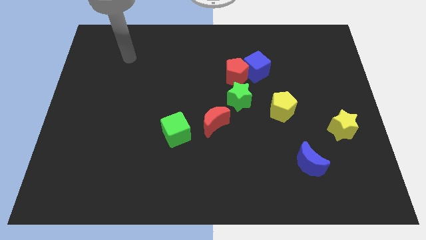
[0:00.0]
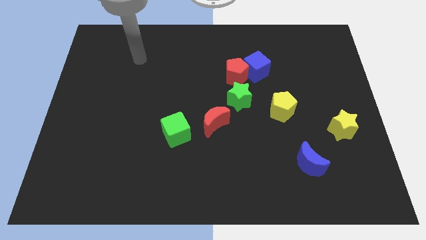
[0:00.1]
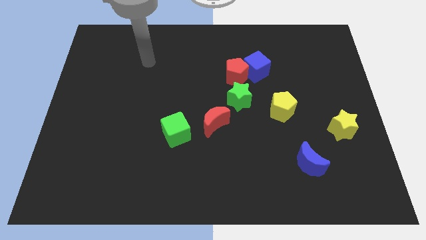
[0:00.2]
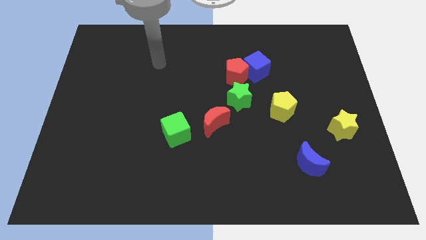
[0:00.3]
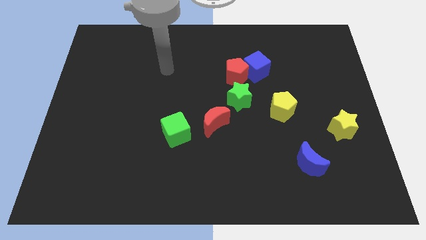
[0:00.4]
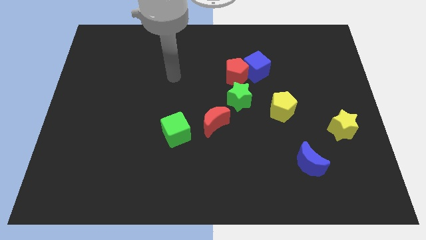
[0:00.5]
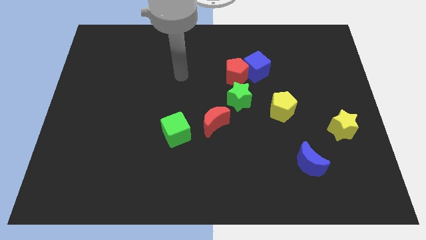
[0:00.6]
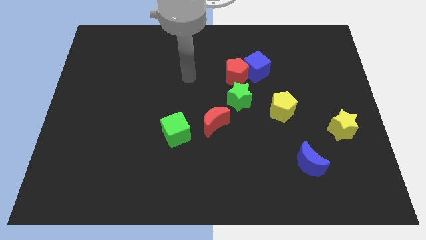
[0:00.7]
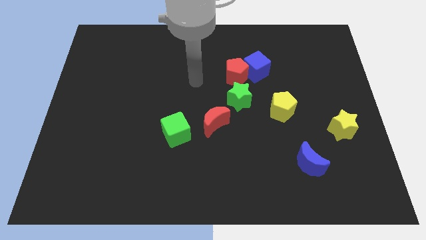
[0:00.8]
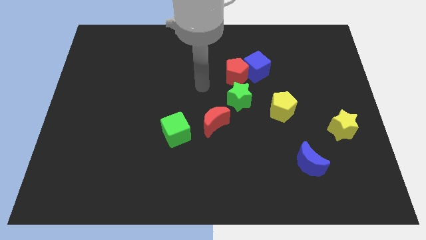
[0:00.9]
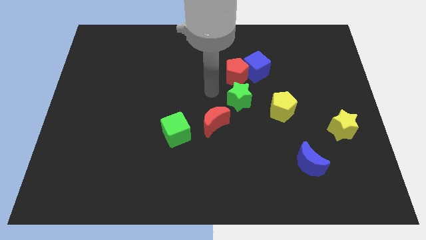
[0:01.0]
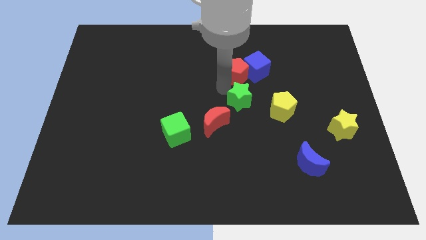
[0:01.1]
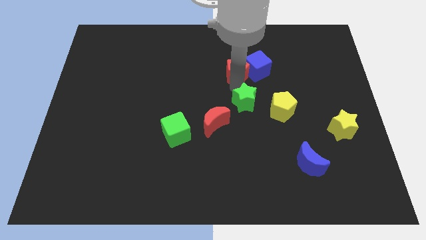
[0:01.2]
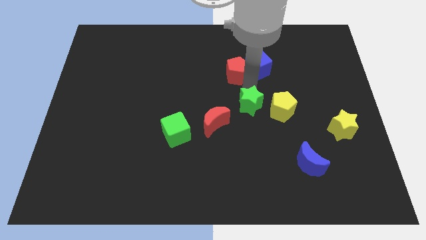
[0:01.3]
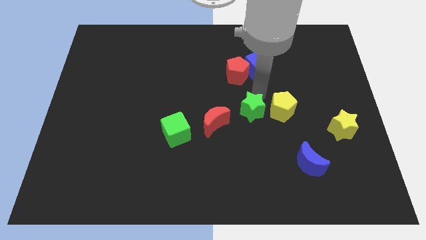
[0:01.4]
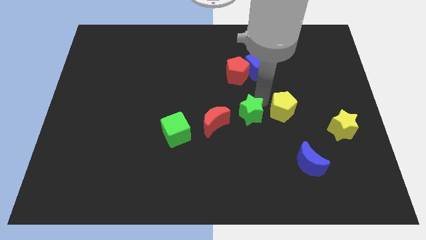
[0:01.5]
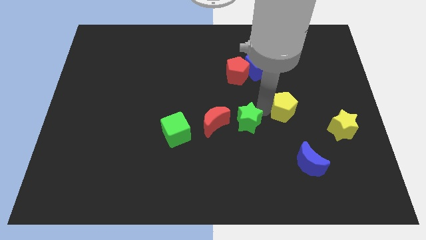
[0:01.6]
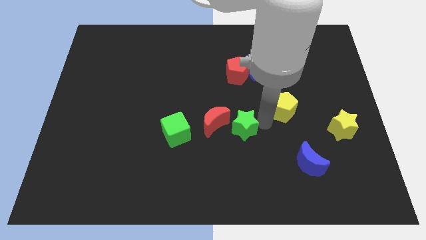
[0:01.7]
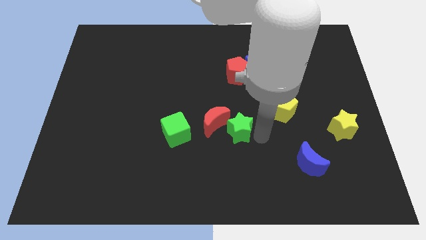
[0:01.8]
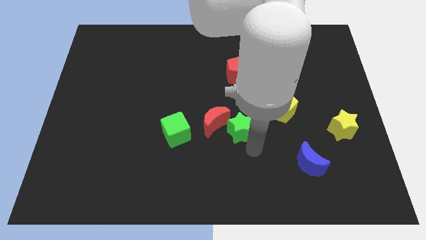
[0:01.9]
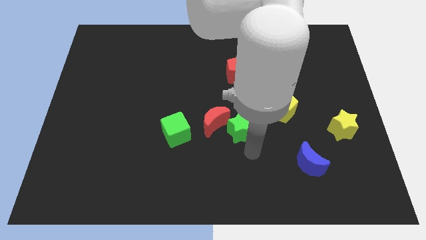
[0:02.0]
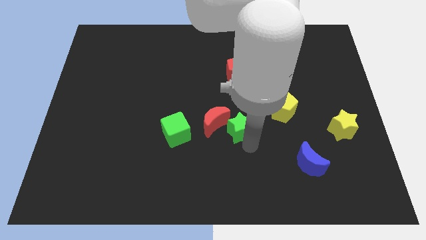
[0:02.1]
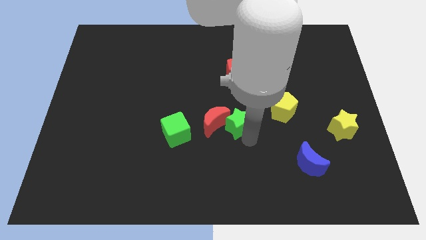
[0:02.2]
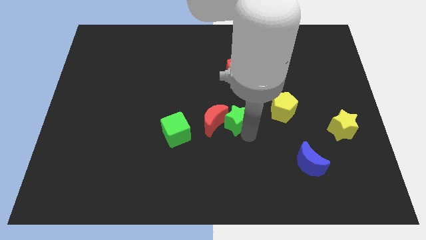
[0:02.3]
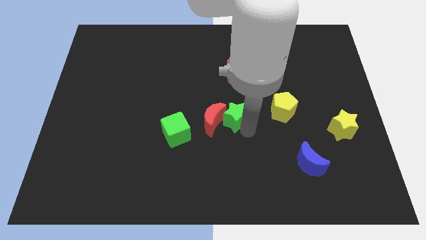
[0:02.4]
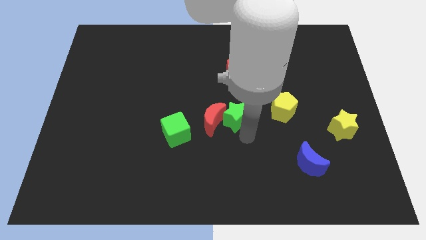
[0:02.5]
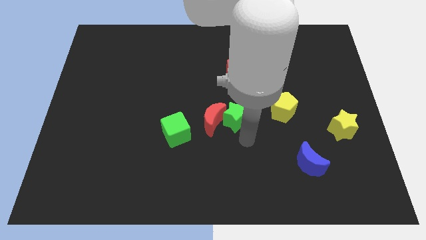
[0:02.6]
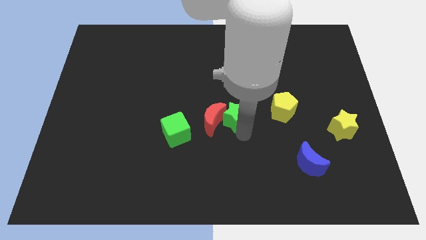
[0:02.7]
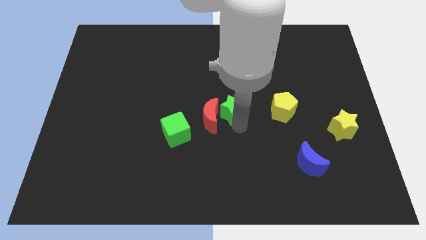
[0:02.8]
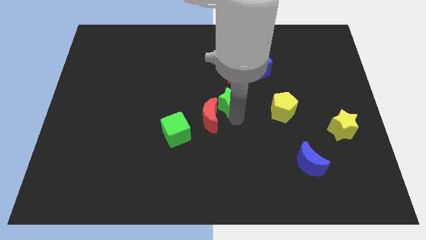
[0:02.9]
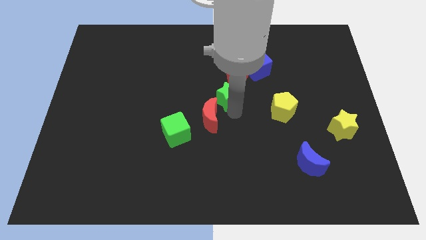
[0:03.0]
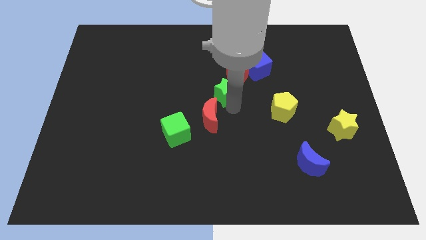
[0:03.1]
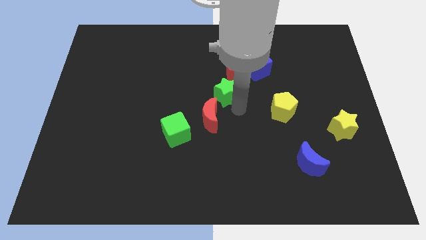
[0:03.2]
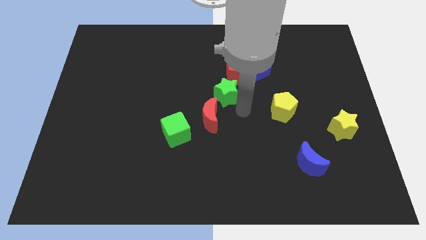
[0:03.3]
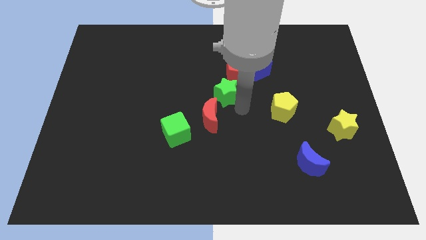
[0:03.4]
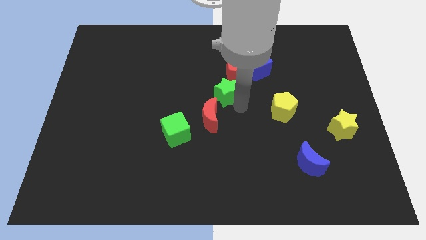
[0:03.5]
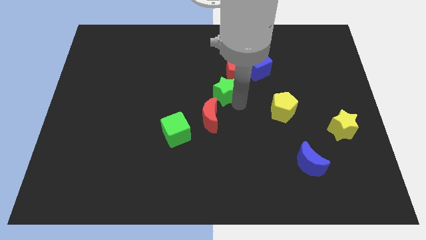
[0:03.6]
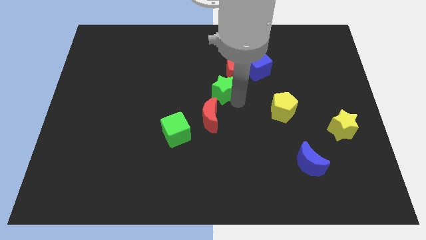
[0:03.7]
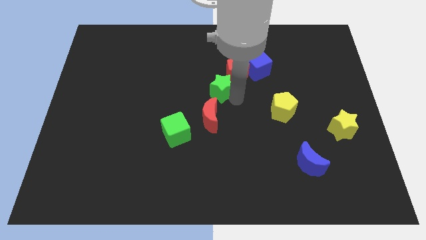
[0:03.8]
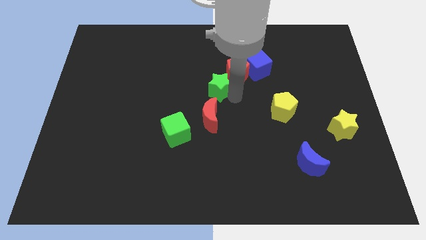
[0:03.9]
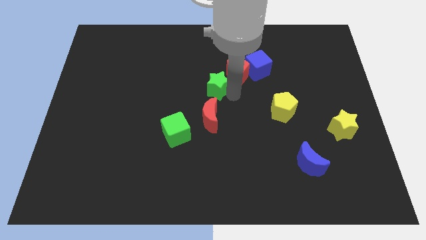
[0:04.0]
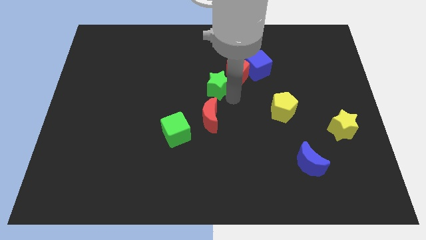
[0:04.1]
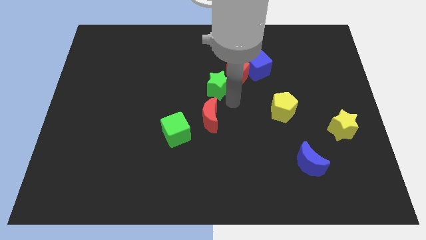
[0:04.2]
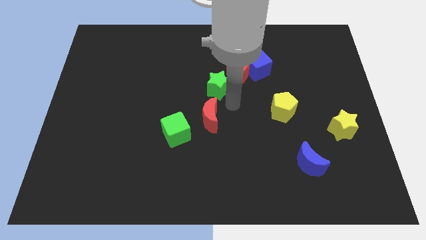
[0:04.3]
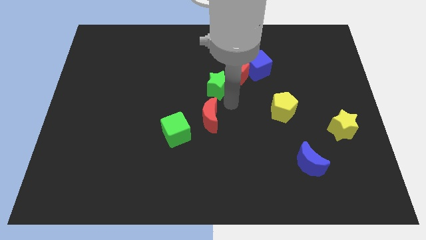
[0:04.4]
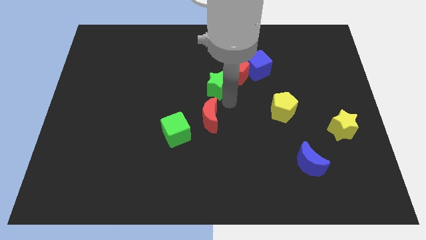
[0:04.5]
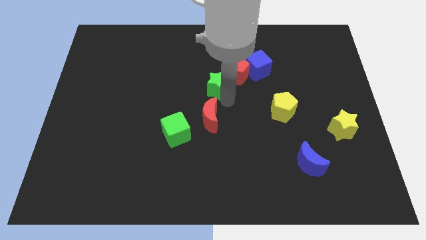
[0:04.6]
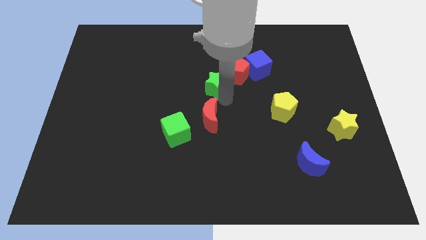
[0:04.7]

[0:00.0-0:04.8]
move the green star up and to the left diagonally a little bit

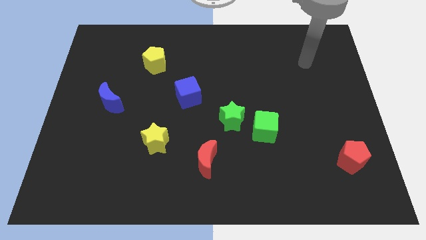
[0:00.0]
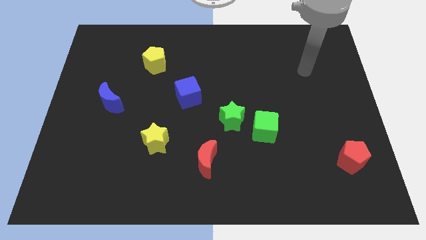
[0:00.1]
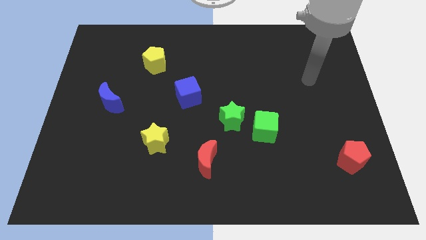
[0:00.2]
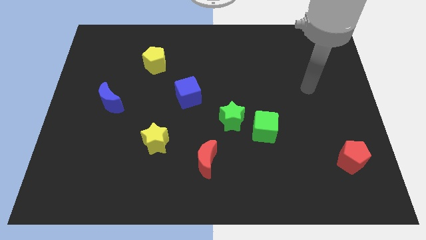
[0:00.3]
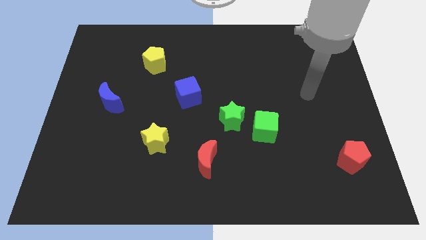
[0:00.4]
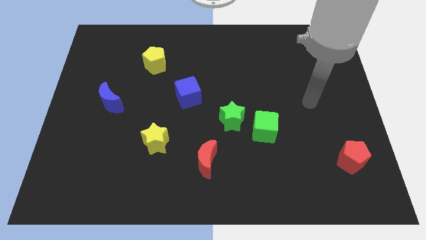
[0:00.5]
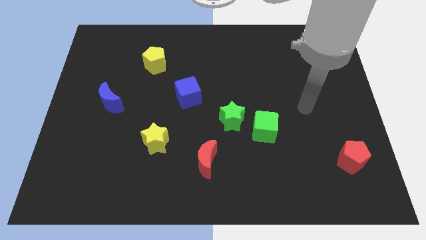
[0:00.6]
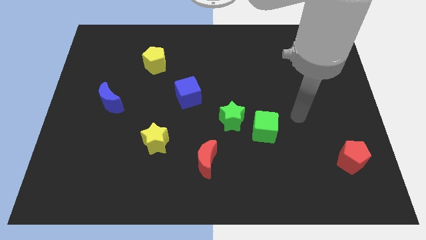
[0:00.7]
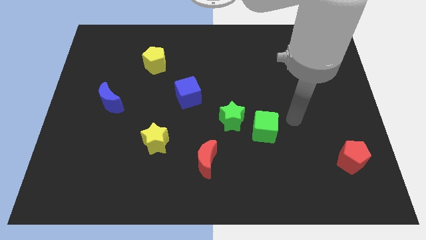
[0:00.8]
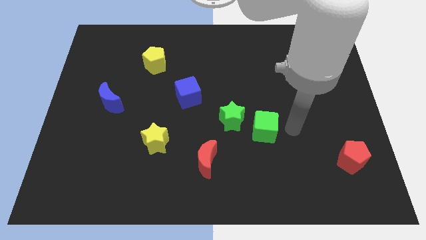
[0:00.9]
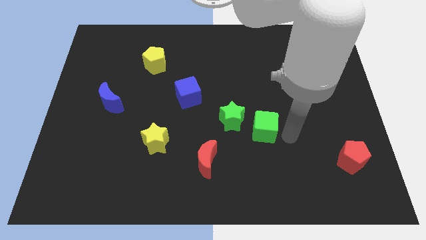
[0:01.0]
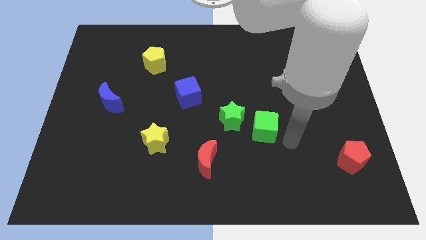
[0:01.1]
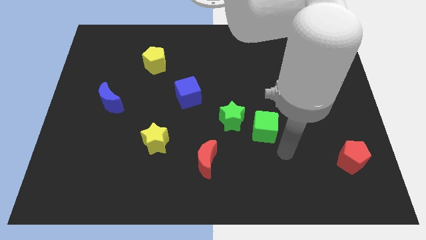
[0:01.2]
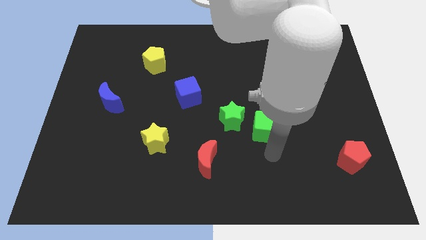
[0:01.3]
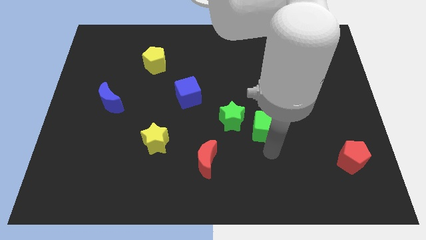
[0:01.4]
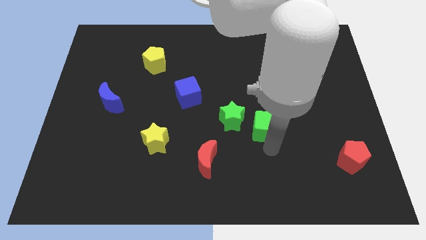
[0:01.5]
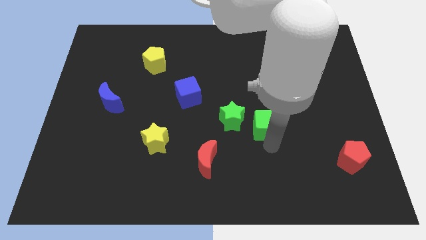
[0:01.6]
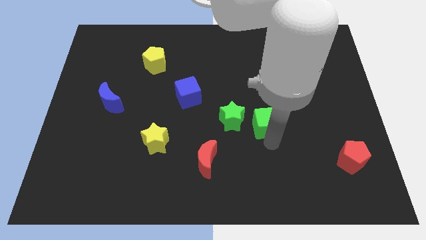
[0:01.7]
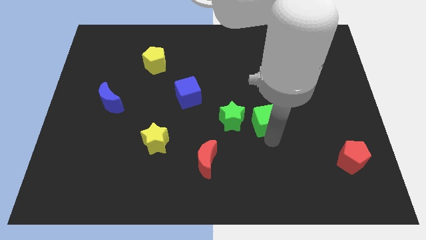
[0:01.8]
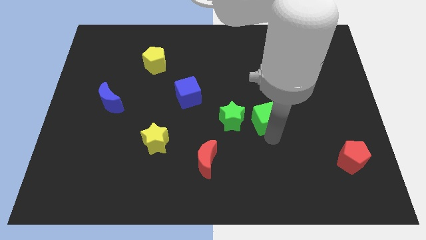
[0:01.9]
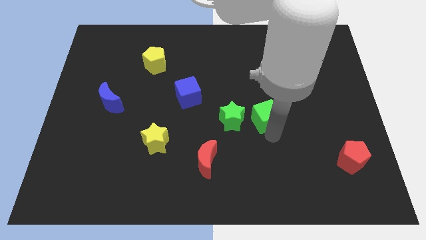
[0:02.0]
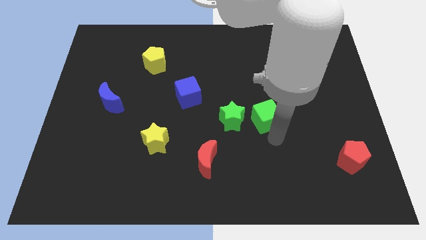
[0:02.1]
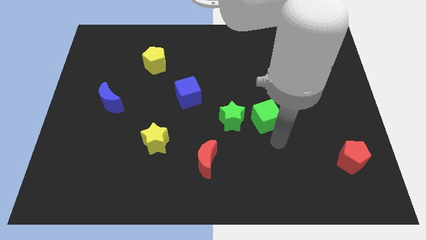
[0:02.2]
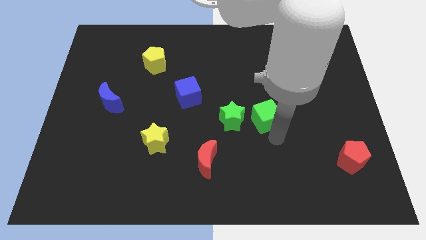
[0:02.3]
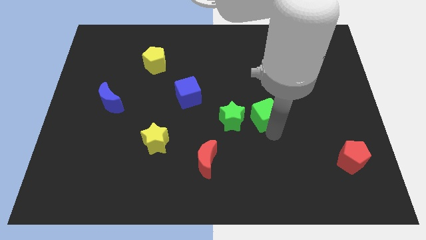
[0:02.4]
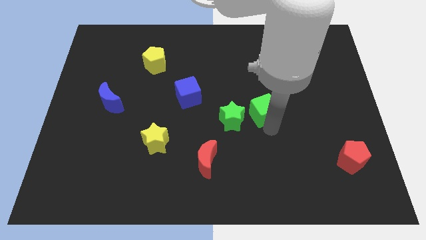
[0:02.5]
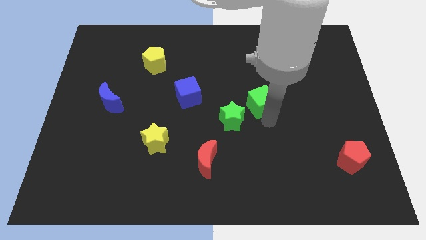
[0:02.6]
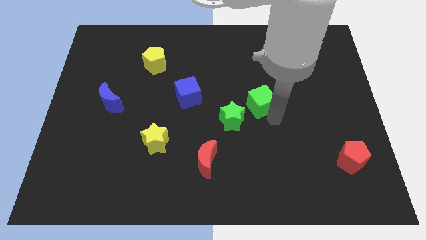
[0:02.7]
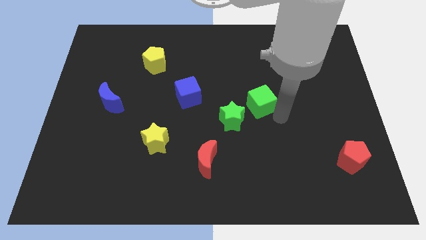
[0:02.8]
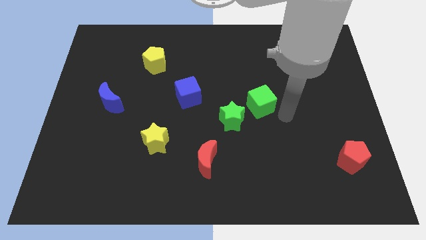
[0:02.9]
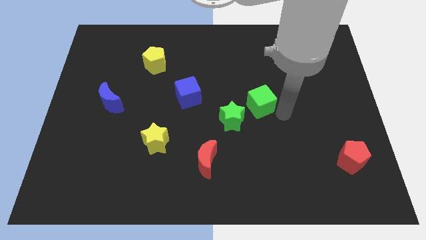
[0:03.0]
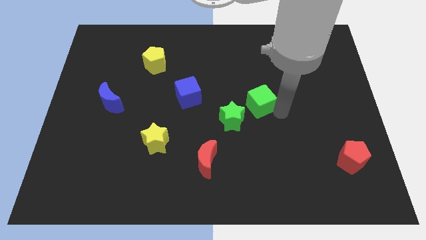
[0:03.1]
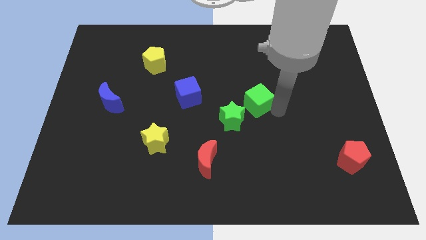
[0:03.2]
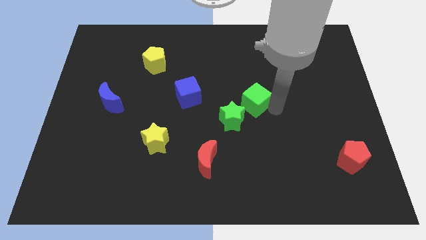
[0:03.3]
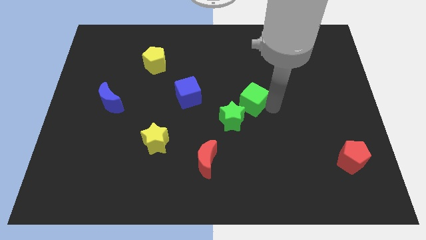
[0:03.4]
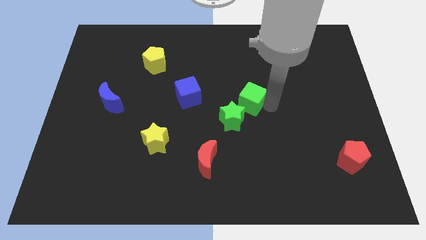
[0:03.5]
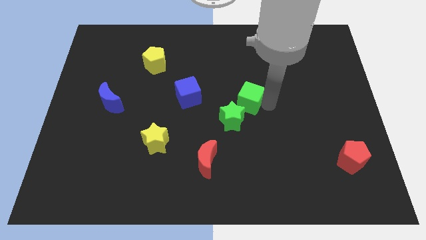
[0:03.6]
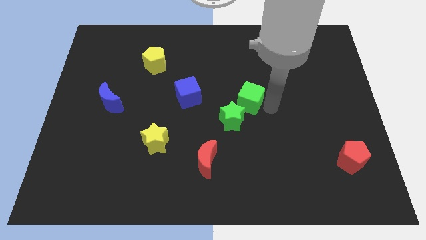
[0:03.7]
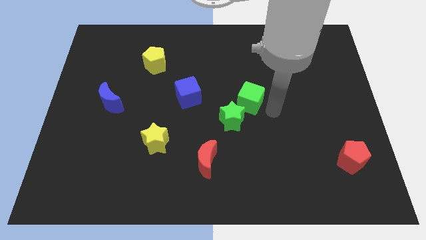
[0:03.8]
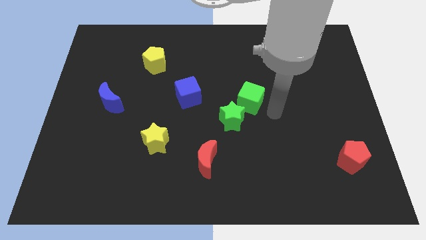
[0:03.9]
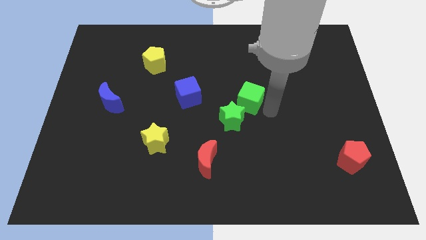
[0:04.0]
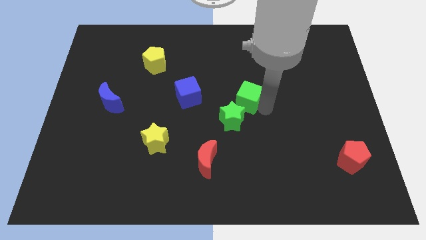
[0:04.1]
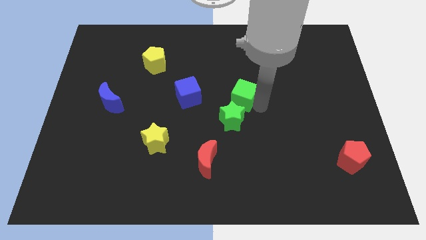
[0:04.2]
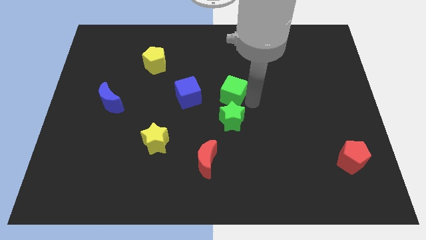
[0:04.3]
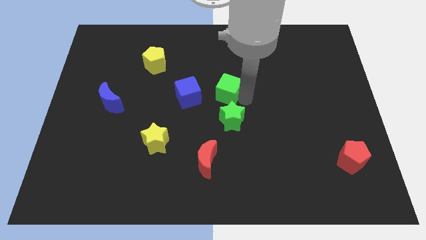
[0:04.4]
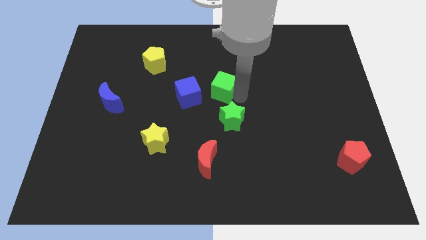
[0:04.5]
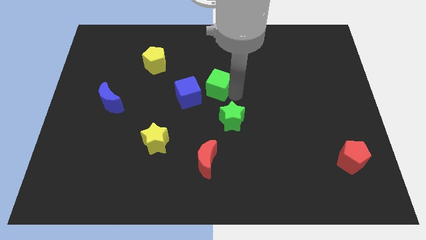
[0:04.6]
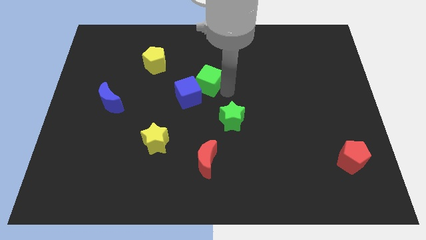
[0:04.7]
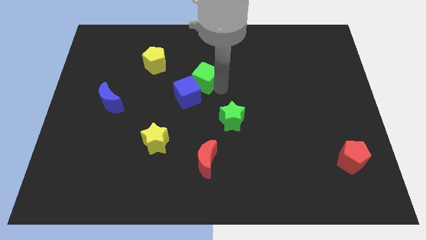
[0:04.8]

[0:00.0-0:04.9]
slide the green cube upwards and then left
